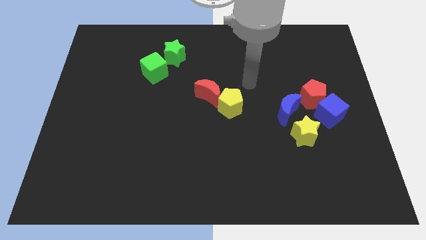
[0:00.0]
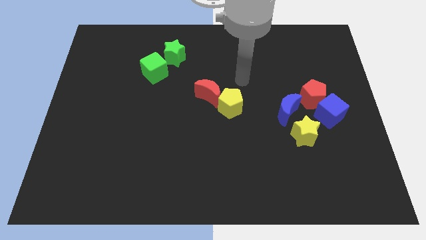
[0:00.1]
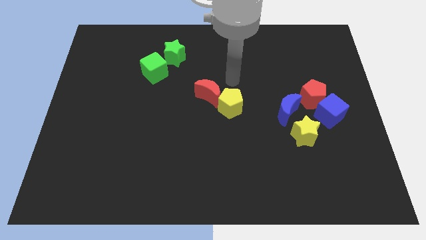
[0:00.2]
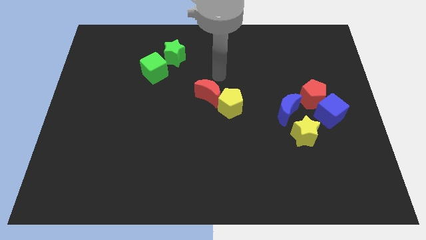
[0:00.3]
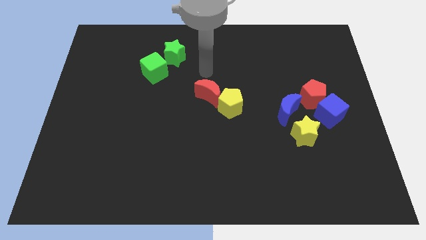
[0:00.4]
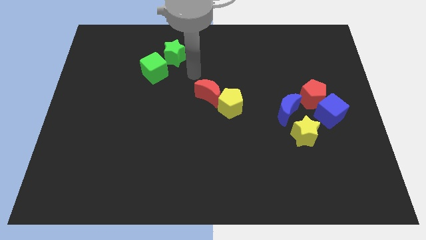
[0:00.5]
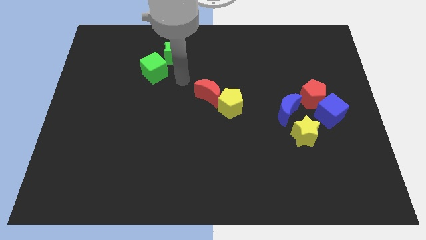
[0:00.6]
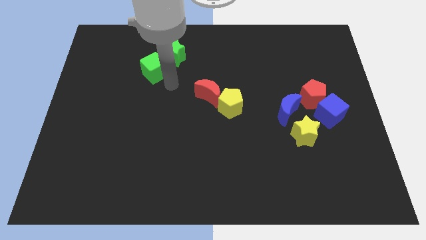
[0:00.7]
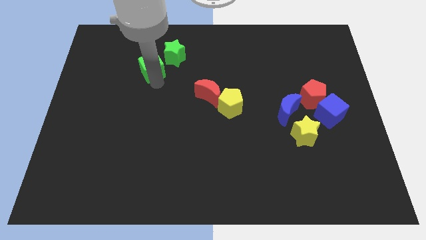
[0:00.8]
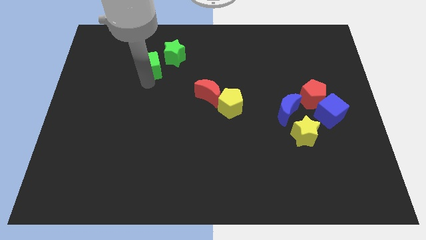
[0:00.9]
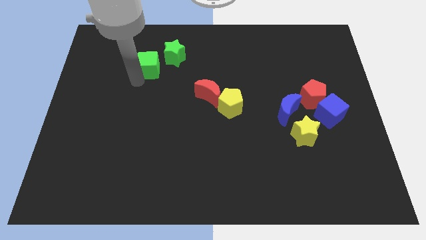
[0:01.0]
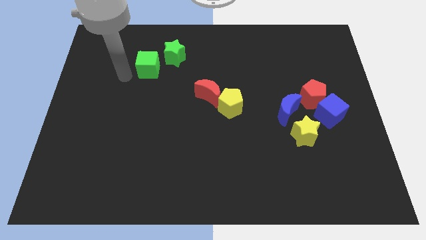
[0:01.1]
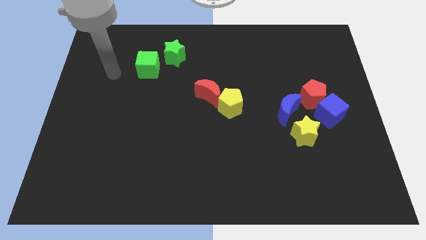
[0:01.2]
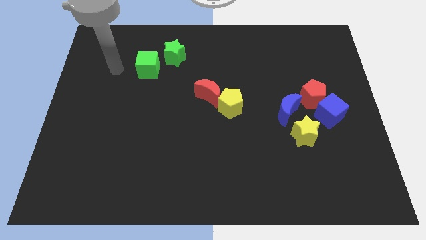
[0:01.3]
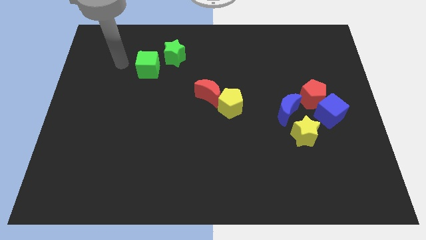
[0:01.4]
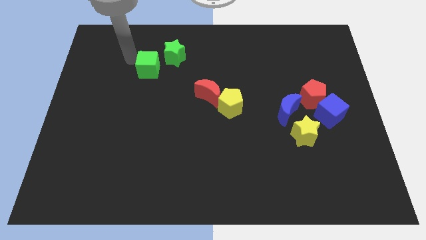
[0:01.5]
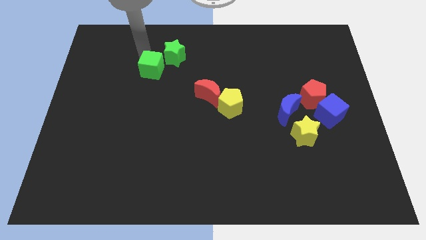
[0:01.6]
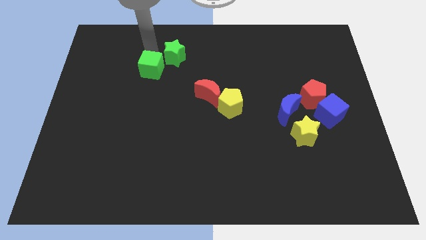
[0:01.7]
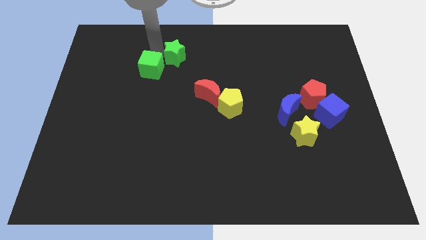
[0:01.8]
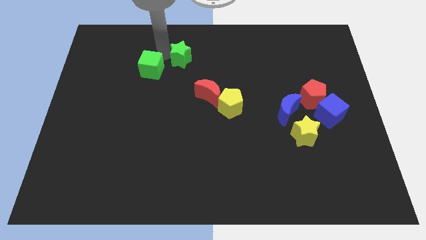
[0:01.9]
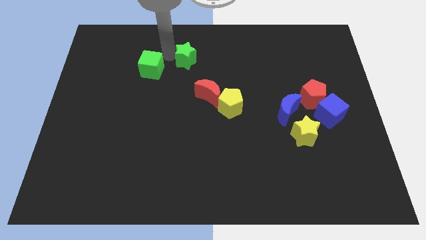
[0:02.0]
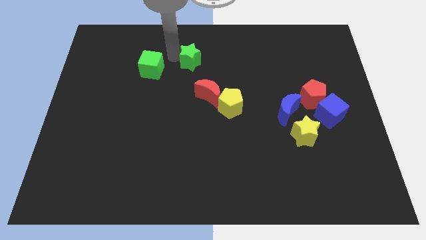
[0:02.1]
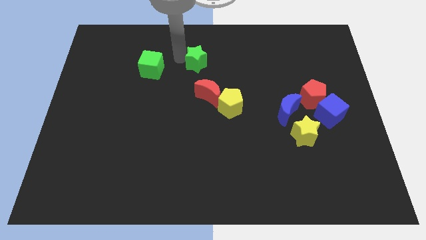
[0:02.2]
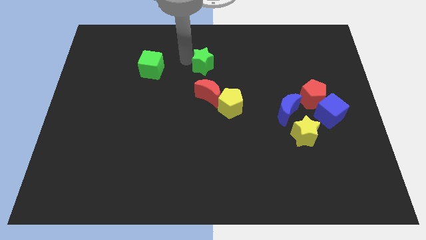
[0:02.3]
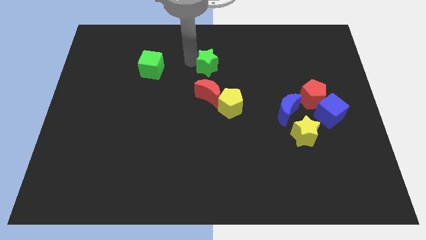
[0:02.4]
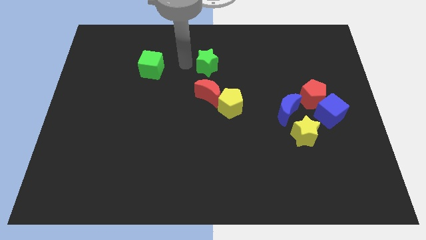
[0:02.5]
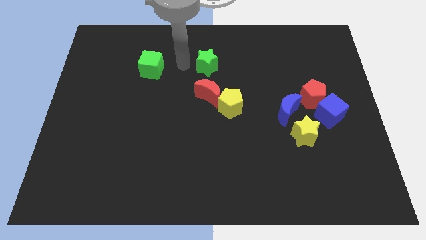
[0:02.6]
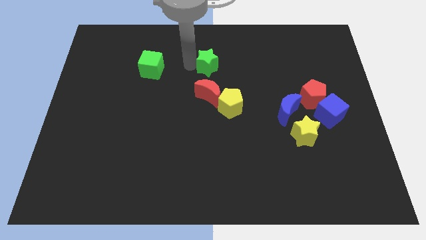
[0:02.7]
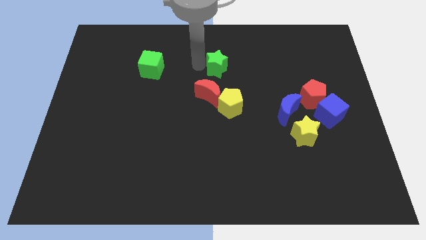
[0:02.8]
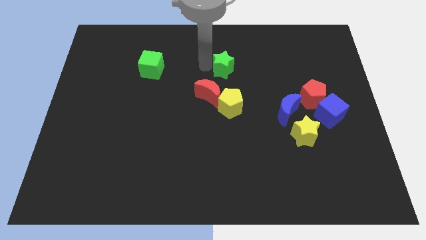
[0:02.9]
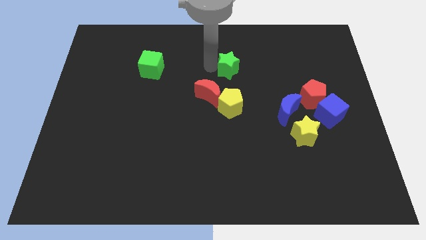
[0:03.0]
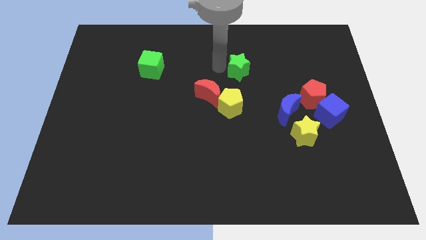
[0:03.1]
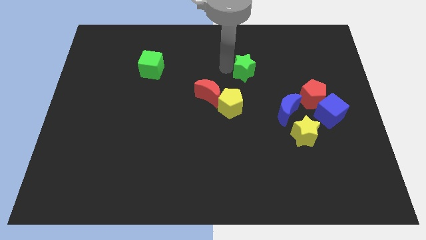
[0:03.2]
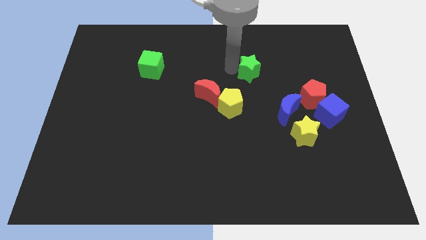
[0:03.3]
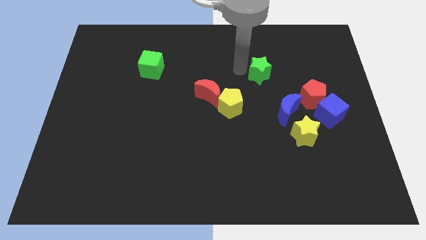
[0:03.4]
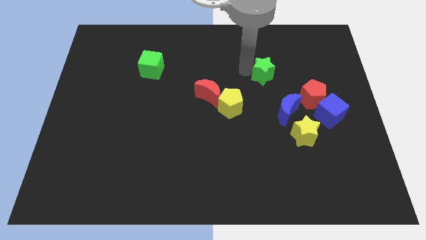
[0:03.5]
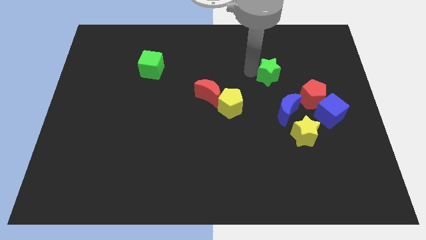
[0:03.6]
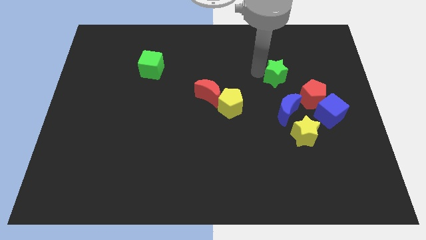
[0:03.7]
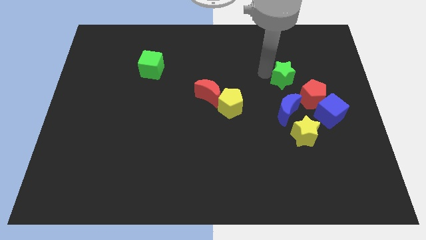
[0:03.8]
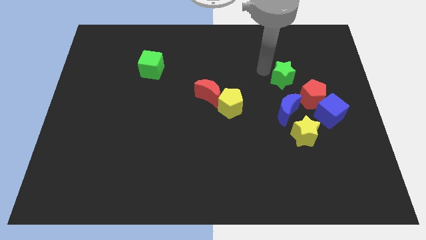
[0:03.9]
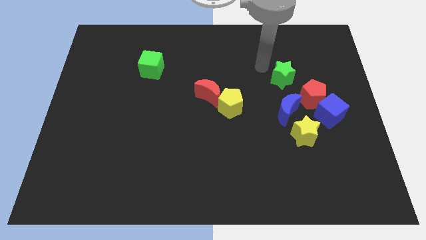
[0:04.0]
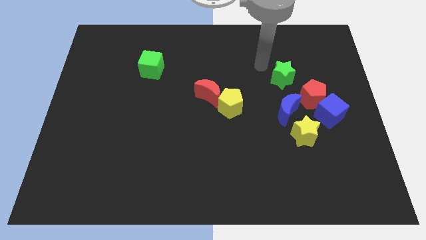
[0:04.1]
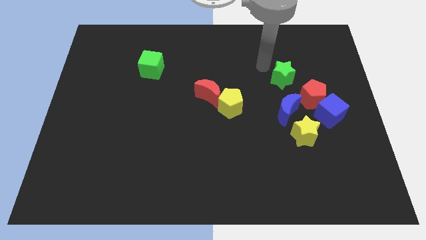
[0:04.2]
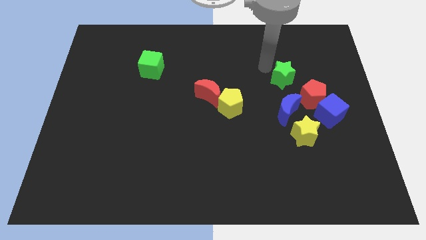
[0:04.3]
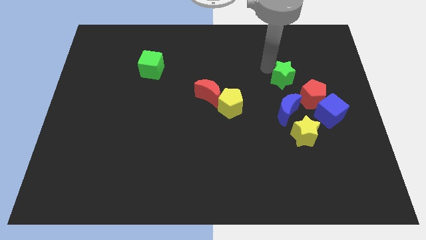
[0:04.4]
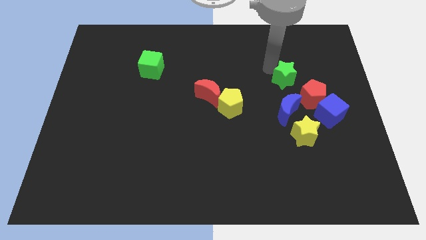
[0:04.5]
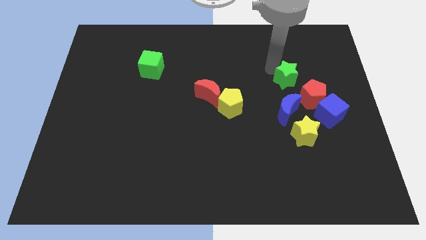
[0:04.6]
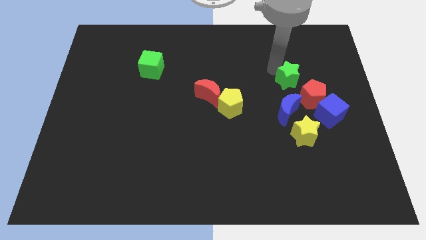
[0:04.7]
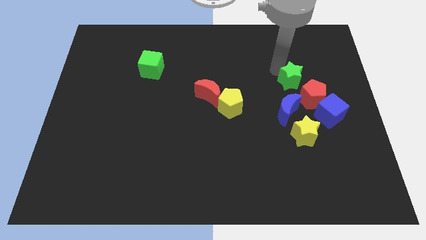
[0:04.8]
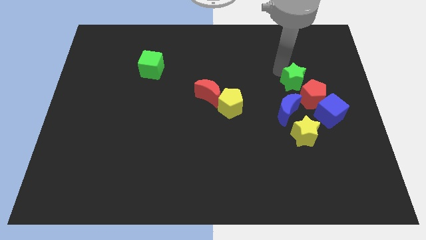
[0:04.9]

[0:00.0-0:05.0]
slide the green star to the top left side of the blue cube

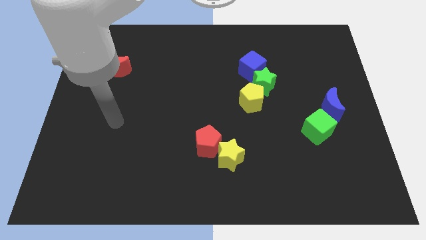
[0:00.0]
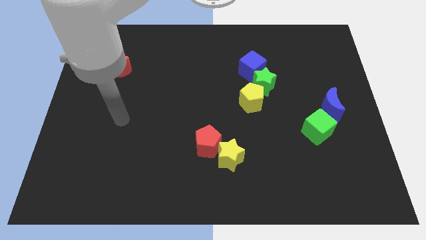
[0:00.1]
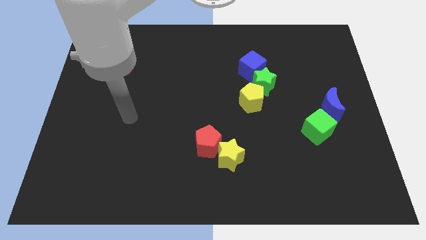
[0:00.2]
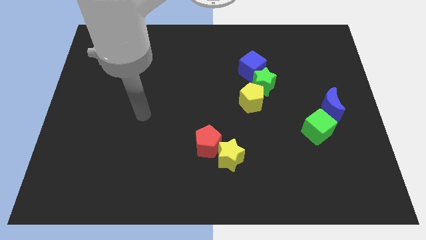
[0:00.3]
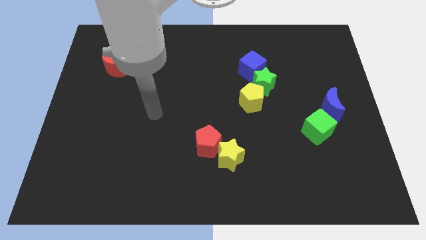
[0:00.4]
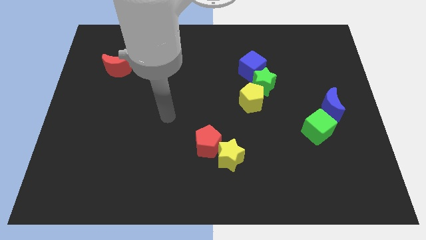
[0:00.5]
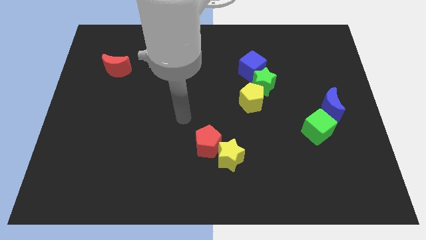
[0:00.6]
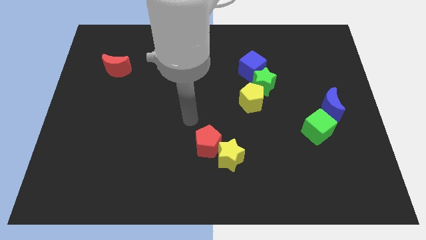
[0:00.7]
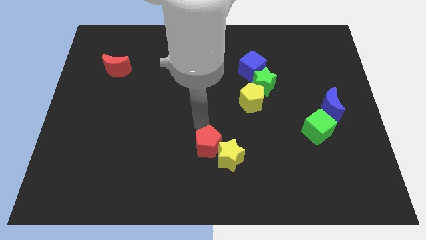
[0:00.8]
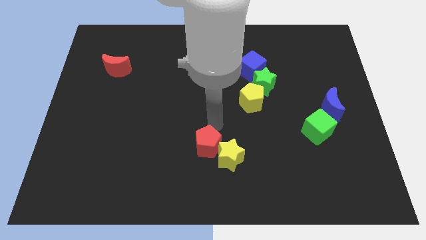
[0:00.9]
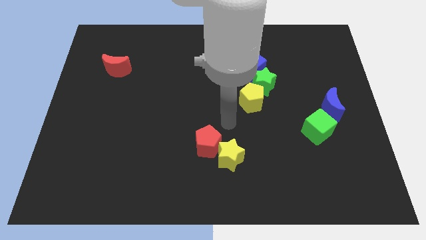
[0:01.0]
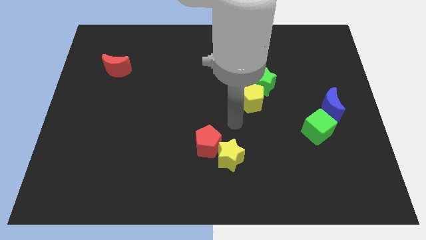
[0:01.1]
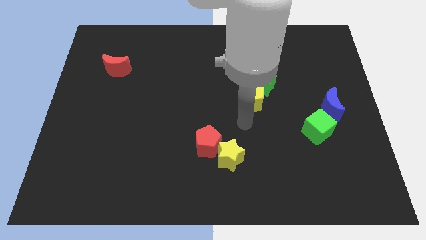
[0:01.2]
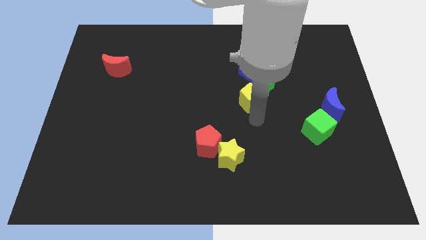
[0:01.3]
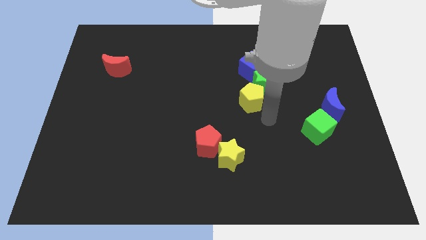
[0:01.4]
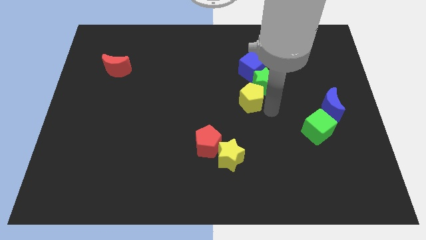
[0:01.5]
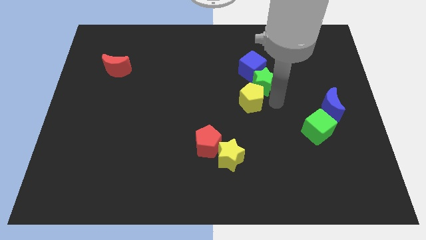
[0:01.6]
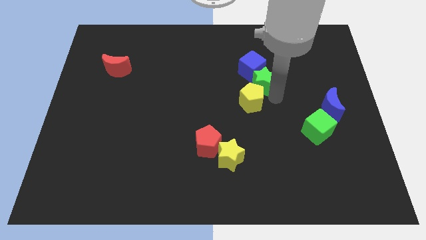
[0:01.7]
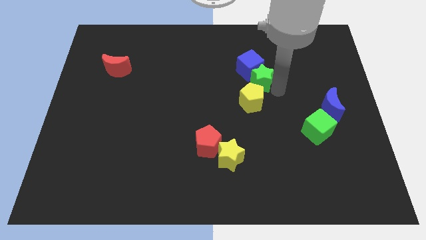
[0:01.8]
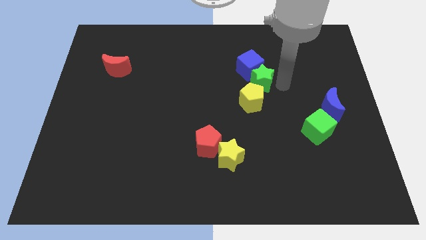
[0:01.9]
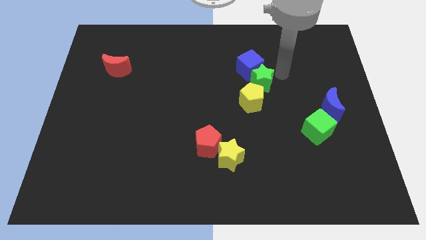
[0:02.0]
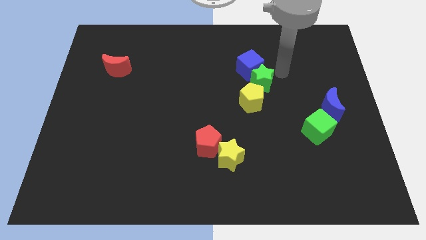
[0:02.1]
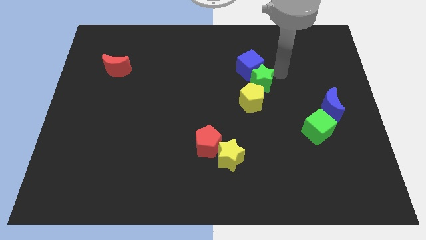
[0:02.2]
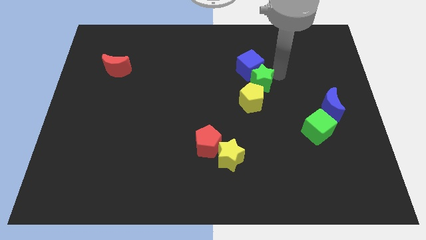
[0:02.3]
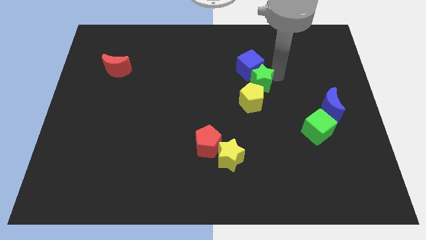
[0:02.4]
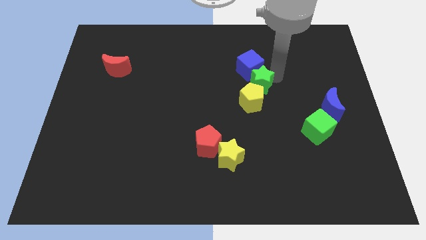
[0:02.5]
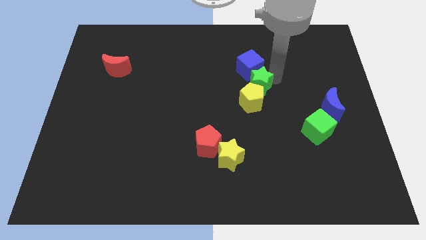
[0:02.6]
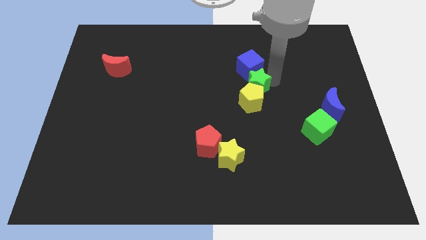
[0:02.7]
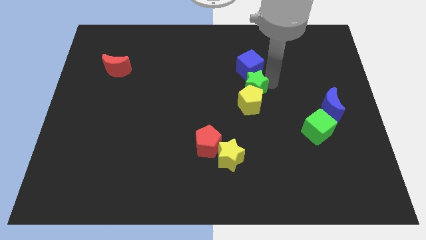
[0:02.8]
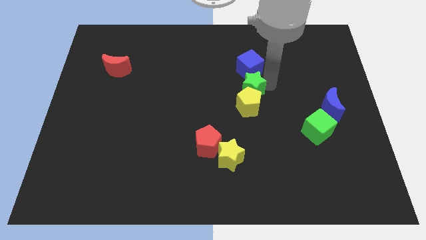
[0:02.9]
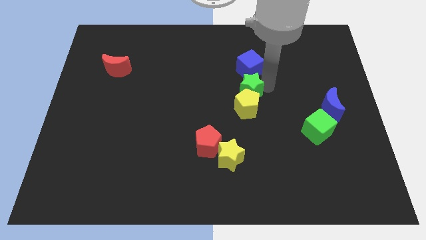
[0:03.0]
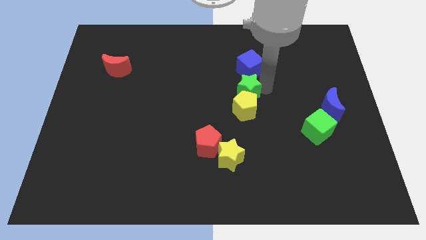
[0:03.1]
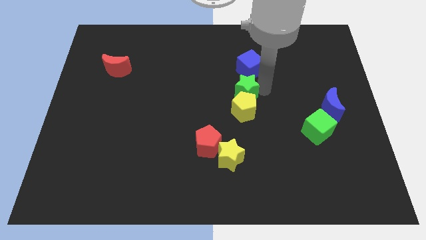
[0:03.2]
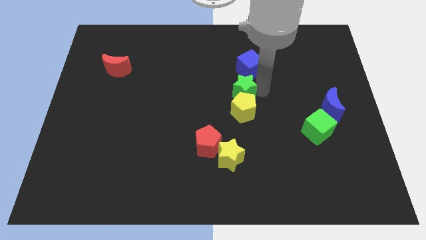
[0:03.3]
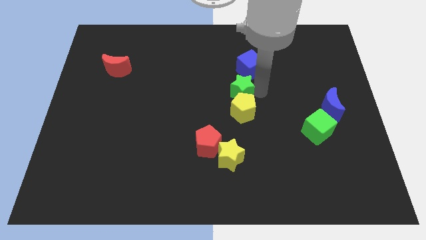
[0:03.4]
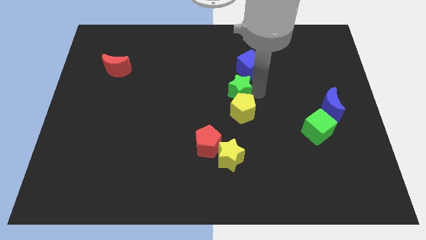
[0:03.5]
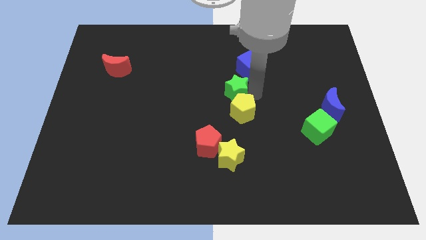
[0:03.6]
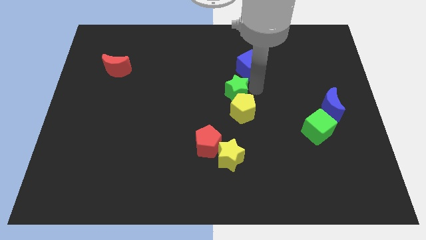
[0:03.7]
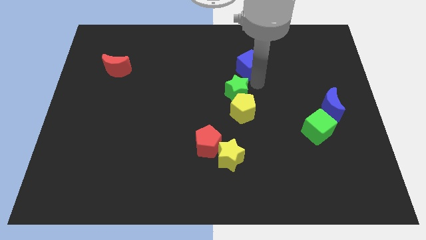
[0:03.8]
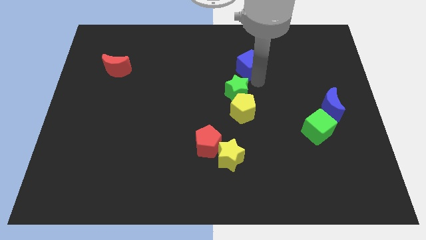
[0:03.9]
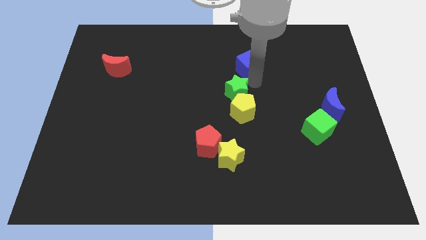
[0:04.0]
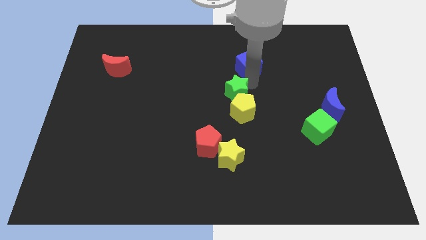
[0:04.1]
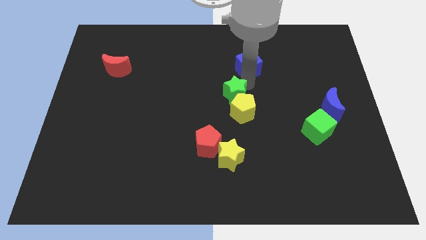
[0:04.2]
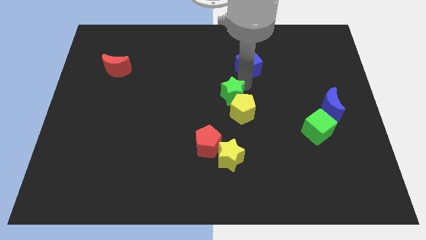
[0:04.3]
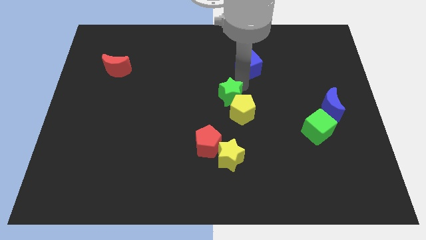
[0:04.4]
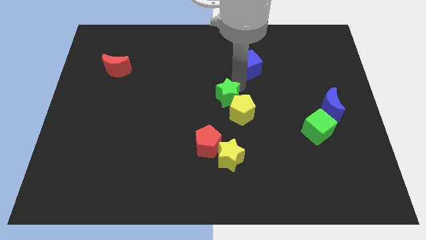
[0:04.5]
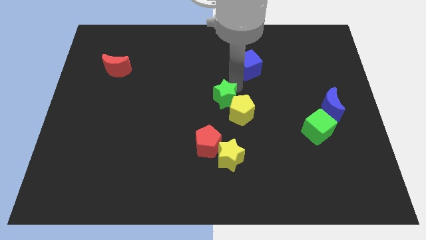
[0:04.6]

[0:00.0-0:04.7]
slide the green star to the top of the red pentagon
